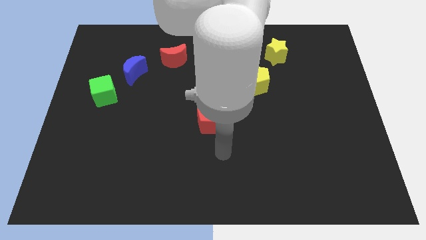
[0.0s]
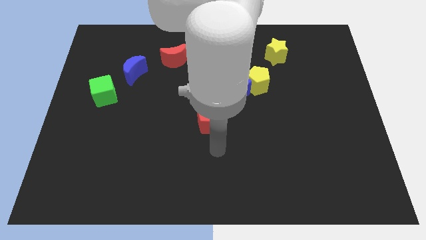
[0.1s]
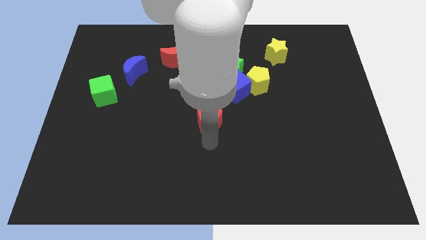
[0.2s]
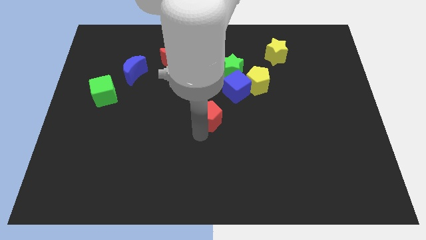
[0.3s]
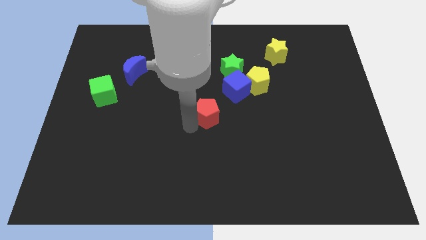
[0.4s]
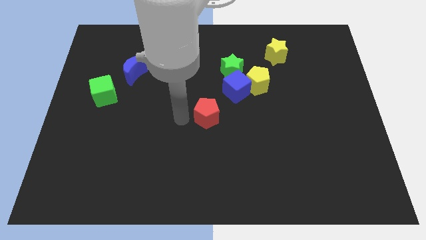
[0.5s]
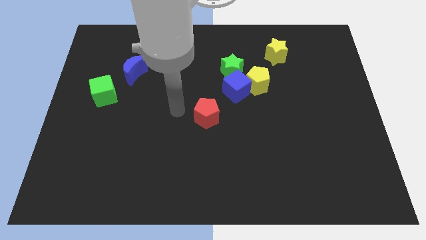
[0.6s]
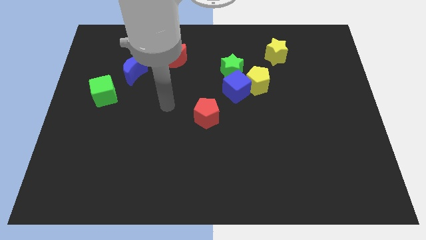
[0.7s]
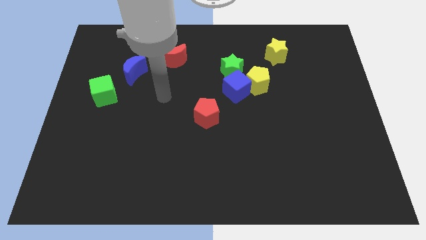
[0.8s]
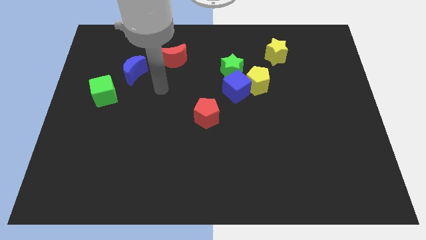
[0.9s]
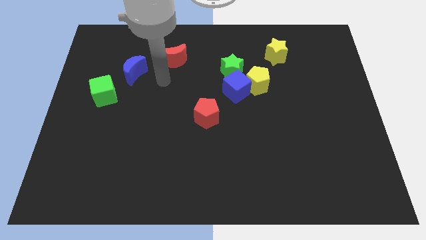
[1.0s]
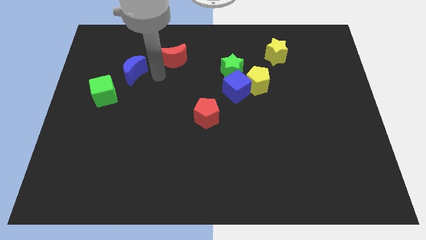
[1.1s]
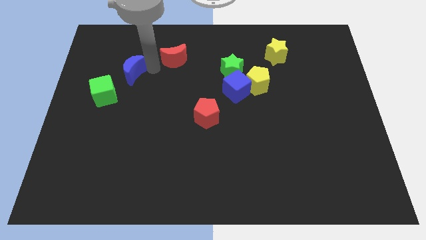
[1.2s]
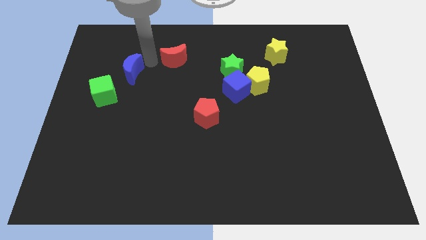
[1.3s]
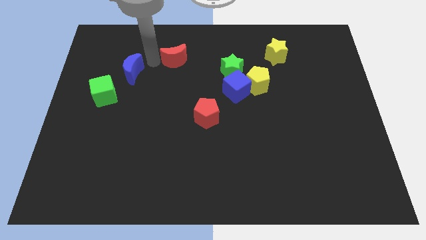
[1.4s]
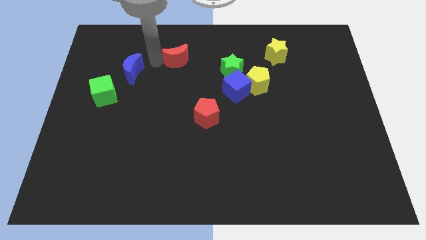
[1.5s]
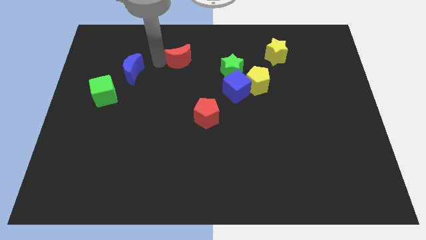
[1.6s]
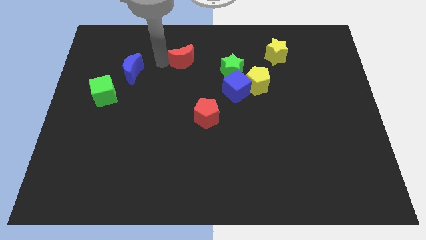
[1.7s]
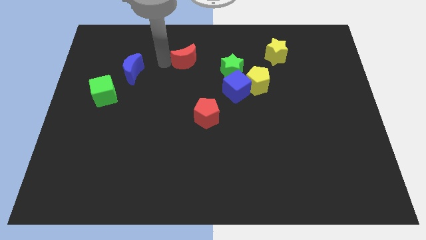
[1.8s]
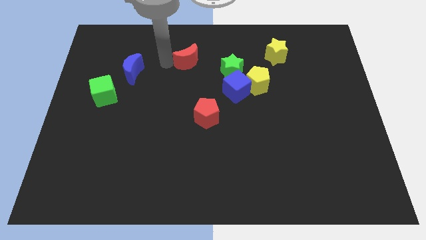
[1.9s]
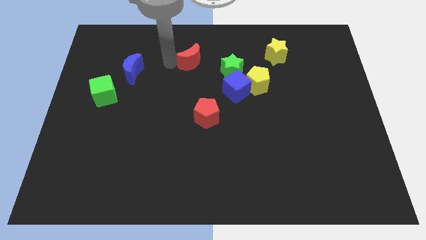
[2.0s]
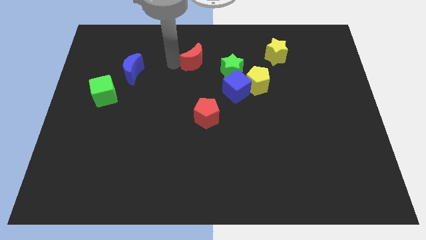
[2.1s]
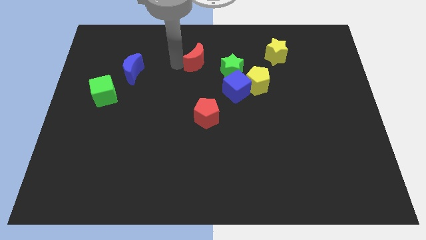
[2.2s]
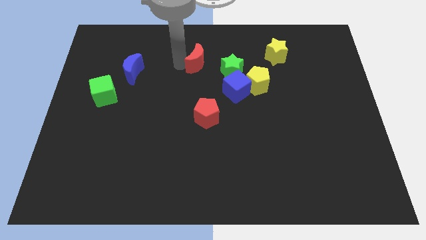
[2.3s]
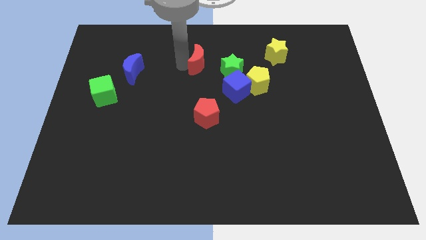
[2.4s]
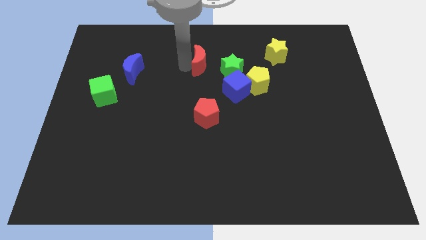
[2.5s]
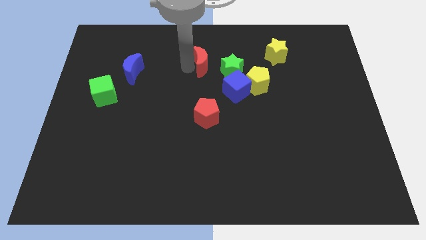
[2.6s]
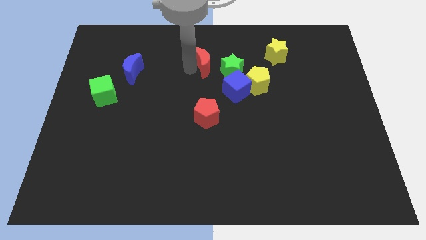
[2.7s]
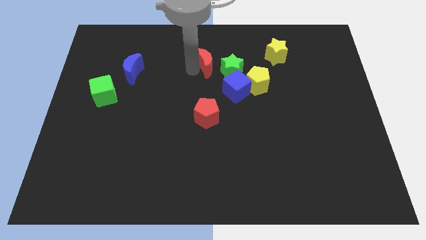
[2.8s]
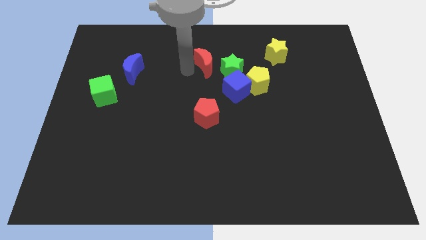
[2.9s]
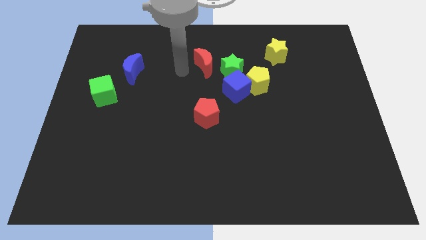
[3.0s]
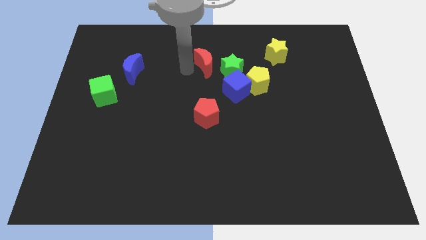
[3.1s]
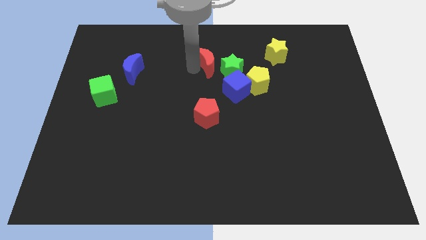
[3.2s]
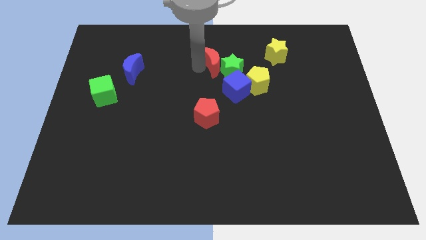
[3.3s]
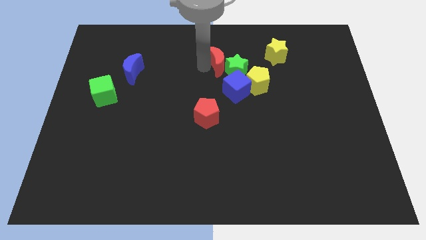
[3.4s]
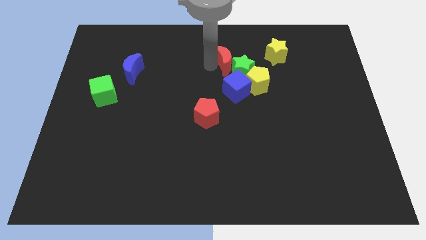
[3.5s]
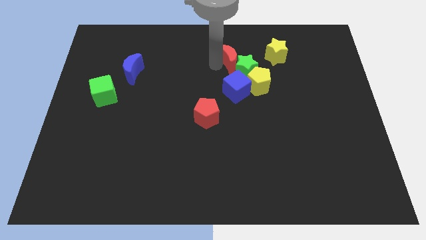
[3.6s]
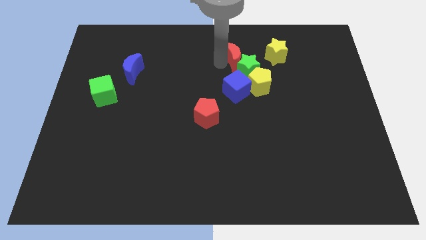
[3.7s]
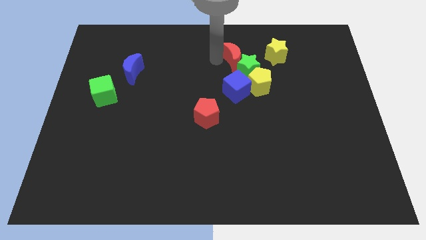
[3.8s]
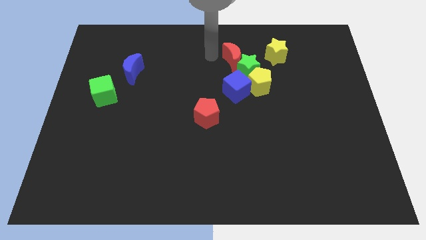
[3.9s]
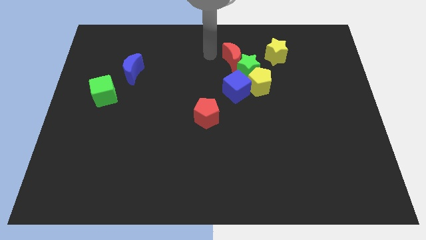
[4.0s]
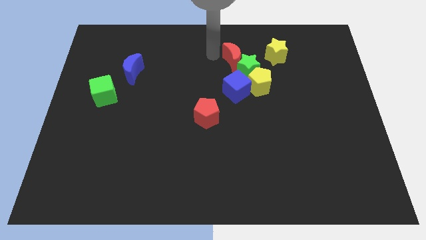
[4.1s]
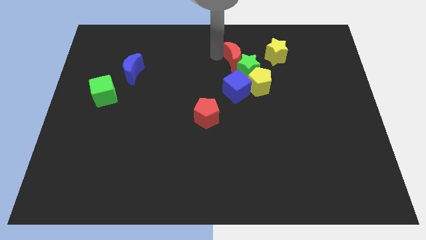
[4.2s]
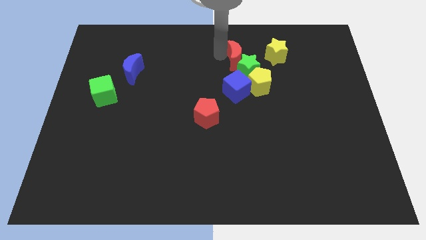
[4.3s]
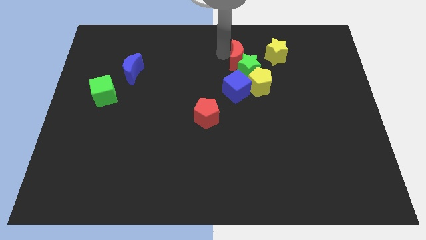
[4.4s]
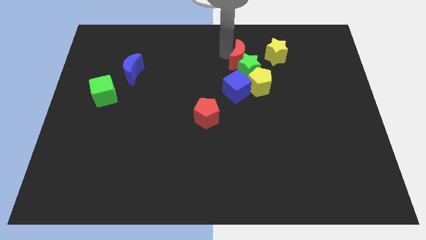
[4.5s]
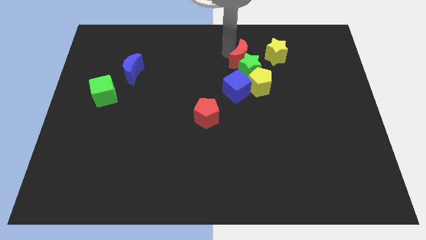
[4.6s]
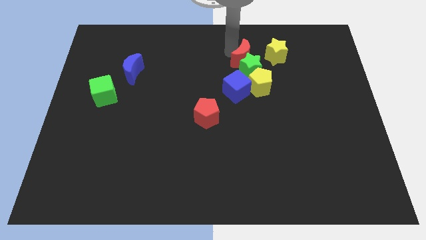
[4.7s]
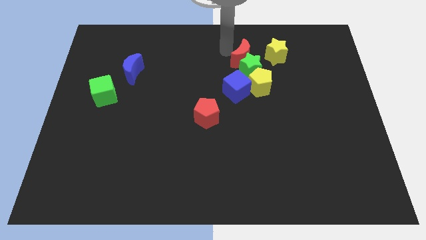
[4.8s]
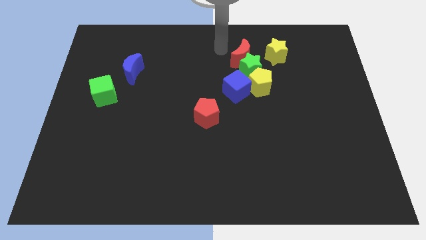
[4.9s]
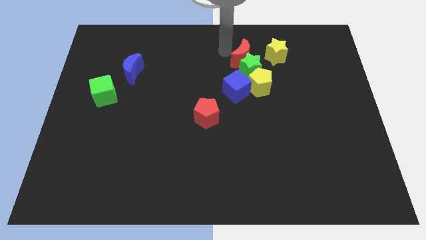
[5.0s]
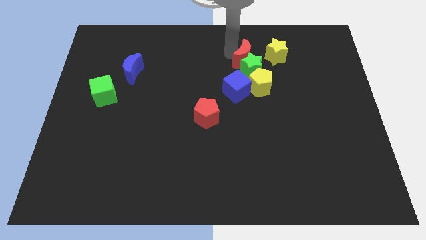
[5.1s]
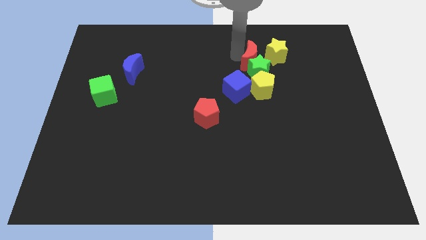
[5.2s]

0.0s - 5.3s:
slide the red moon right

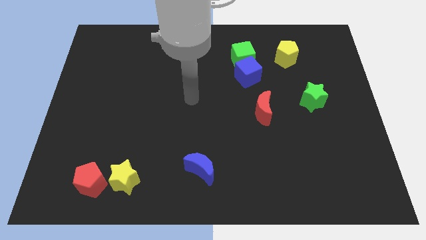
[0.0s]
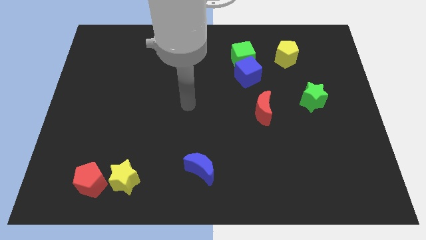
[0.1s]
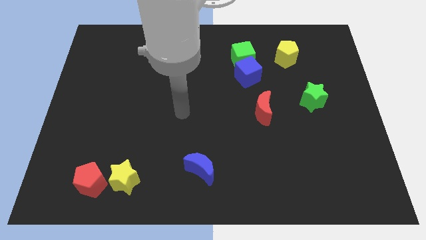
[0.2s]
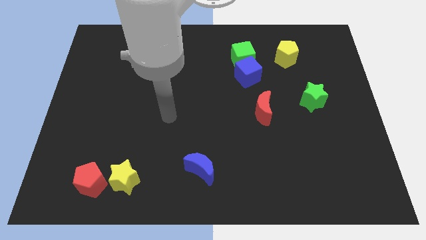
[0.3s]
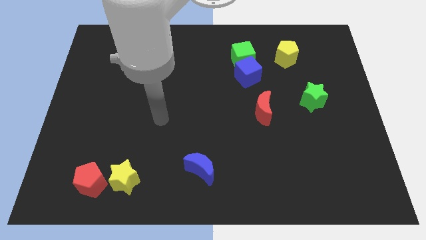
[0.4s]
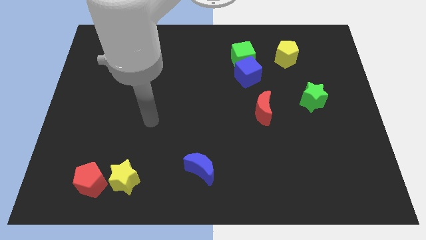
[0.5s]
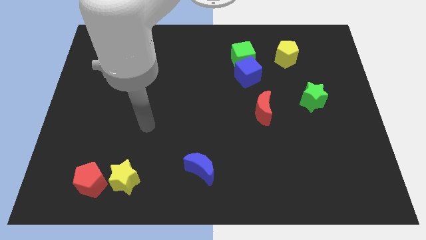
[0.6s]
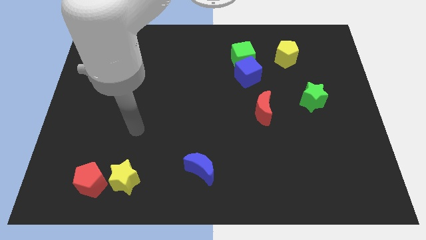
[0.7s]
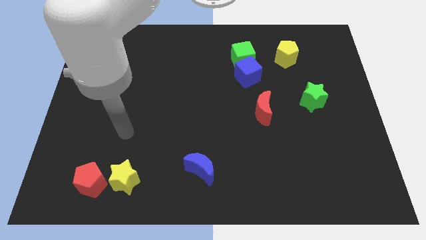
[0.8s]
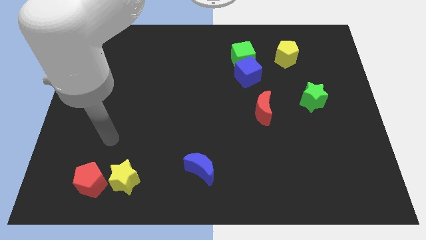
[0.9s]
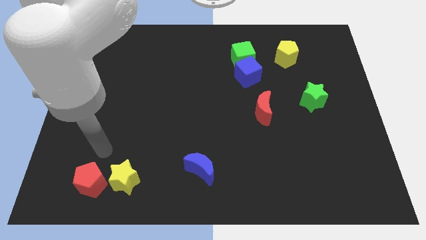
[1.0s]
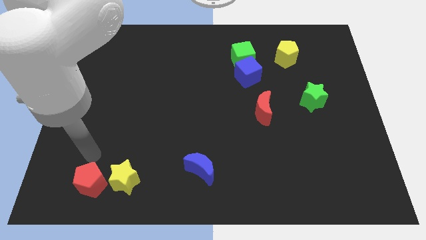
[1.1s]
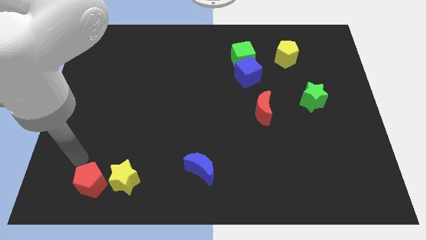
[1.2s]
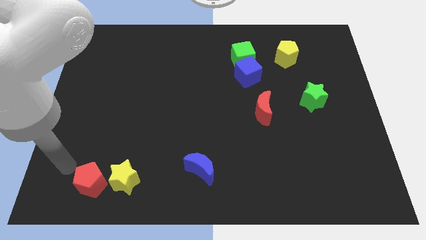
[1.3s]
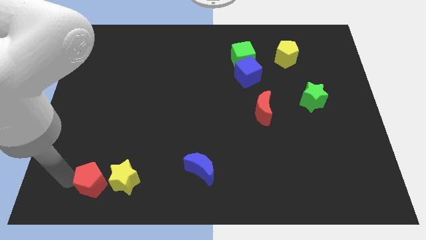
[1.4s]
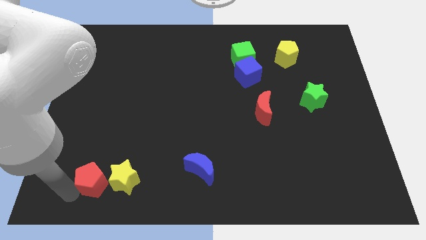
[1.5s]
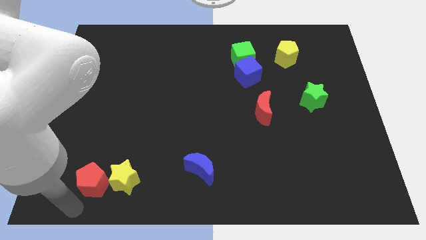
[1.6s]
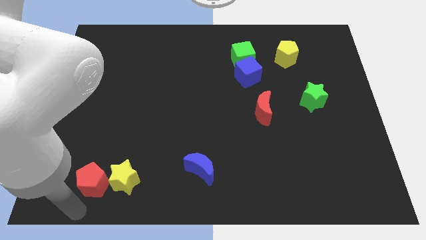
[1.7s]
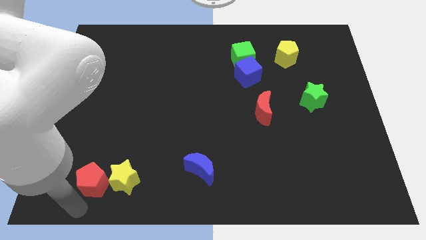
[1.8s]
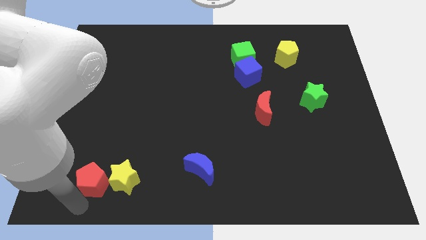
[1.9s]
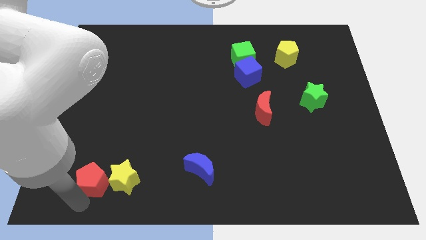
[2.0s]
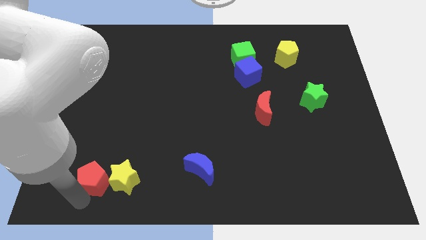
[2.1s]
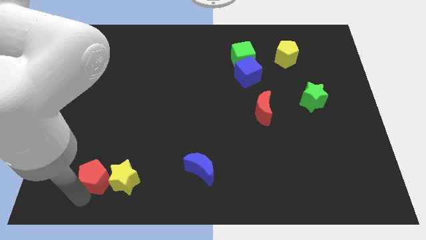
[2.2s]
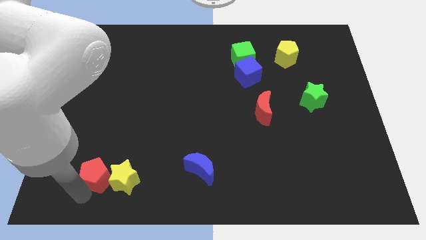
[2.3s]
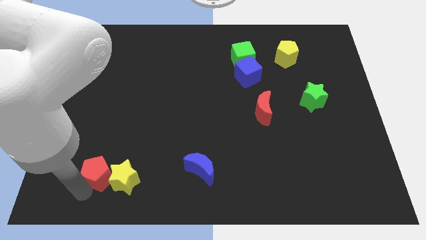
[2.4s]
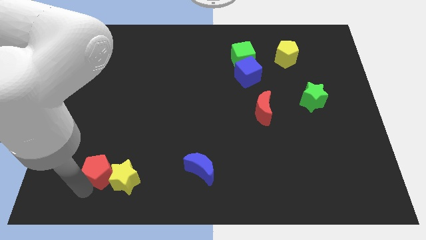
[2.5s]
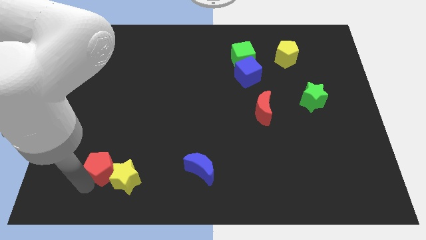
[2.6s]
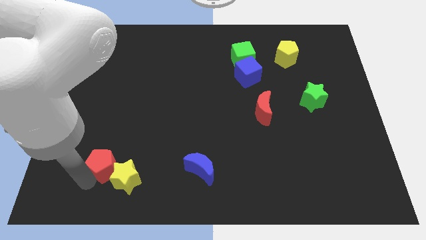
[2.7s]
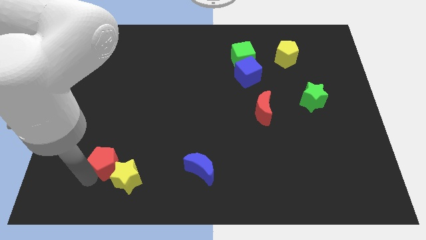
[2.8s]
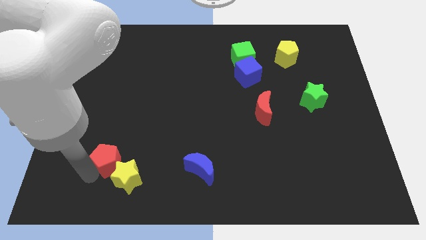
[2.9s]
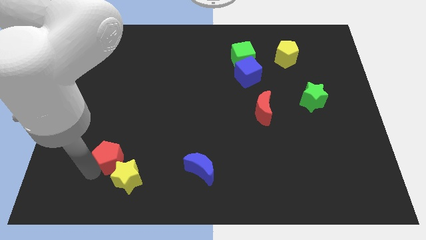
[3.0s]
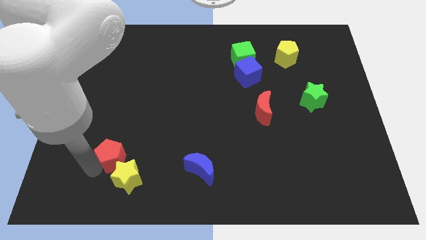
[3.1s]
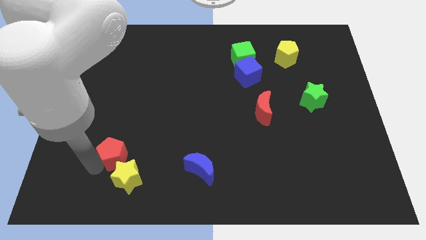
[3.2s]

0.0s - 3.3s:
move the red pentagon somewhat diagonally up and right
